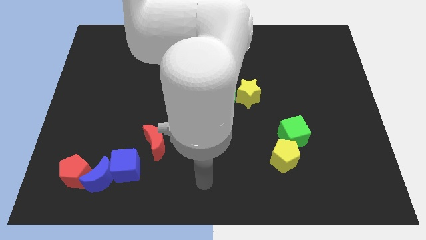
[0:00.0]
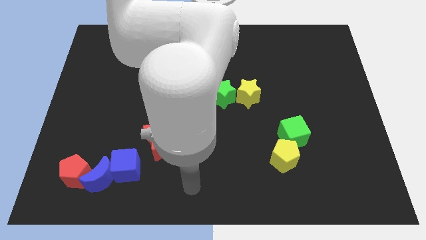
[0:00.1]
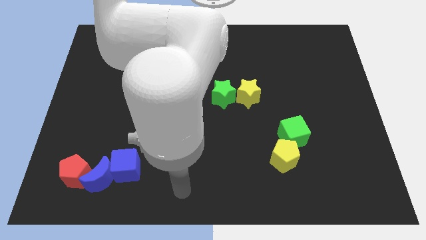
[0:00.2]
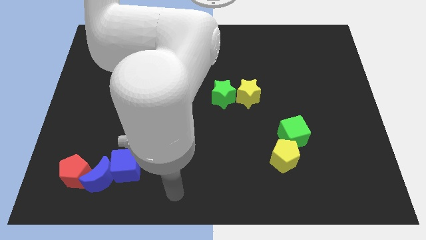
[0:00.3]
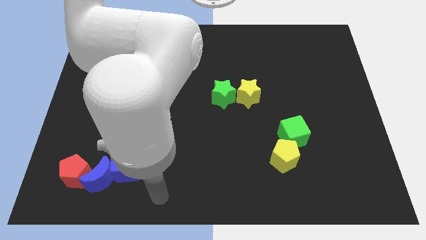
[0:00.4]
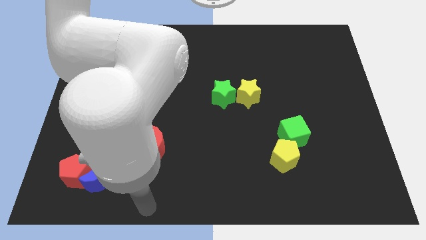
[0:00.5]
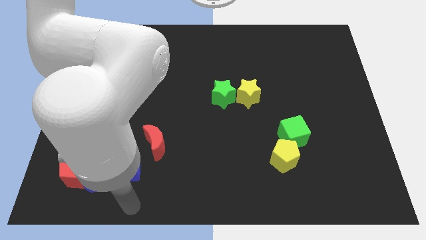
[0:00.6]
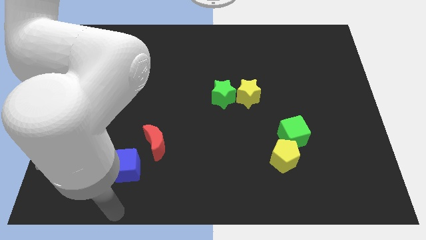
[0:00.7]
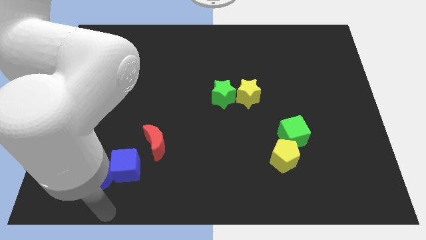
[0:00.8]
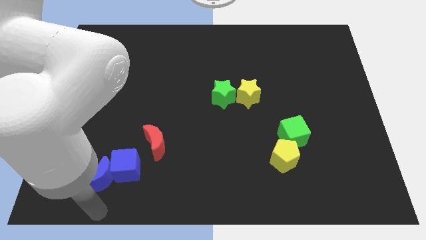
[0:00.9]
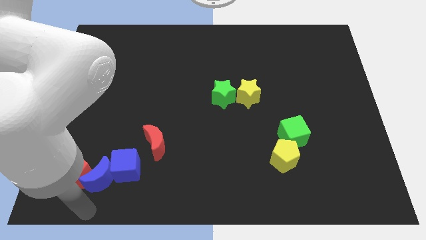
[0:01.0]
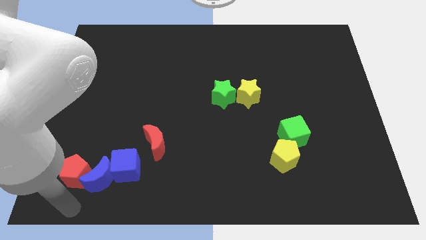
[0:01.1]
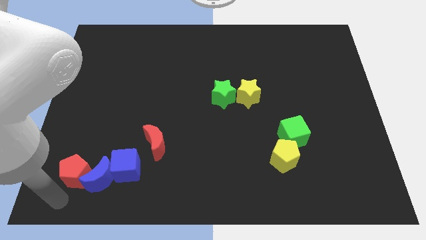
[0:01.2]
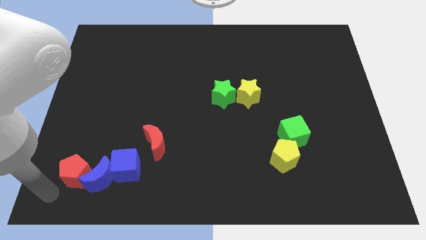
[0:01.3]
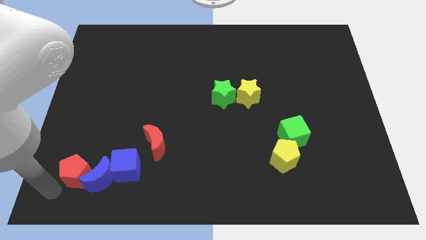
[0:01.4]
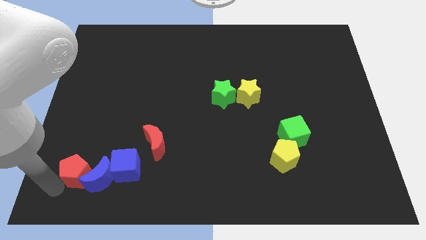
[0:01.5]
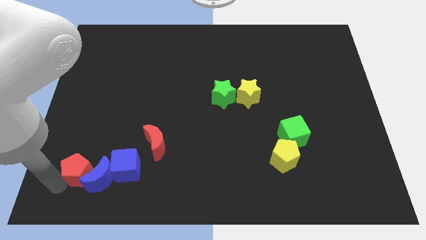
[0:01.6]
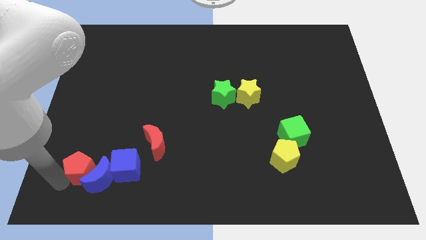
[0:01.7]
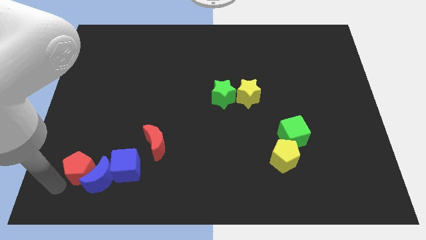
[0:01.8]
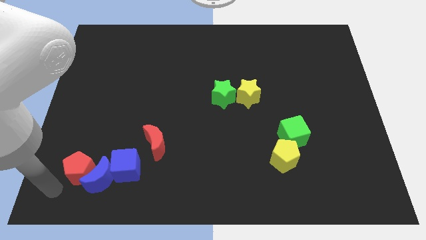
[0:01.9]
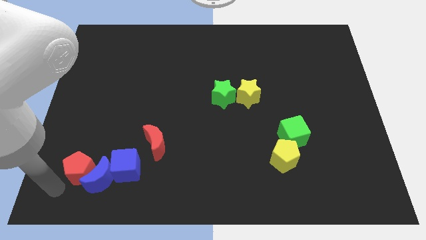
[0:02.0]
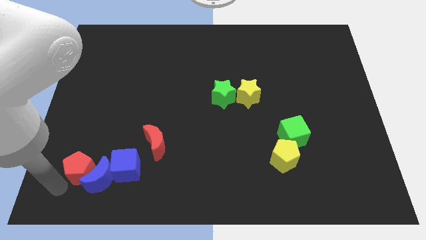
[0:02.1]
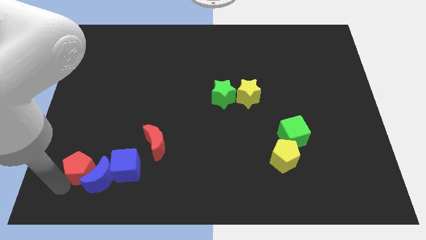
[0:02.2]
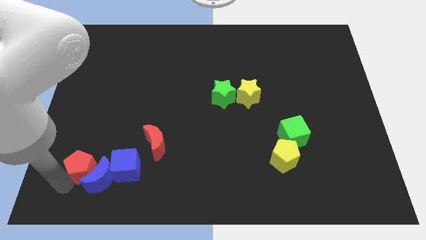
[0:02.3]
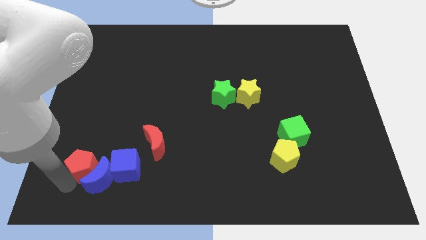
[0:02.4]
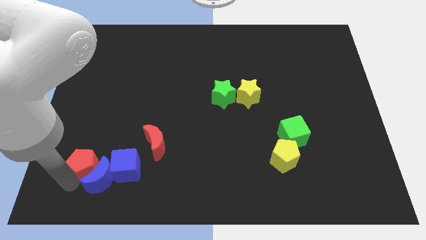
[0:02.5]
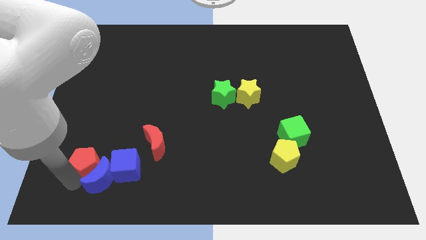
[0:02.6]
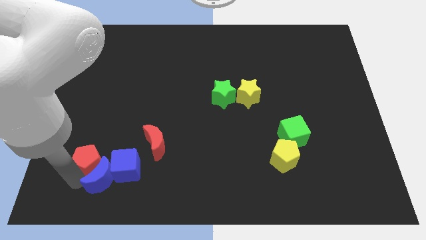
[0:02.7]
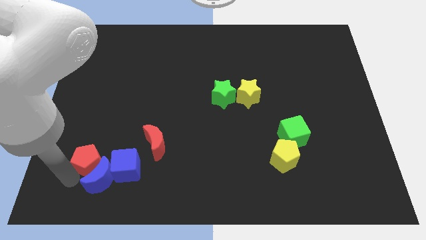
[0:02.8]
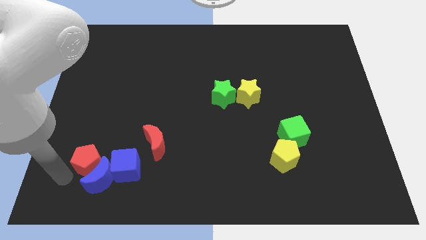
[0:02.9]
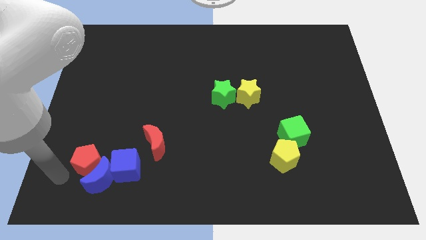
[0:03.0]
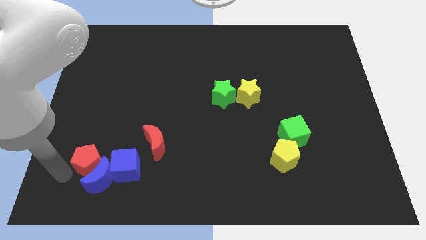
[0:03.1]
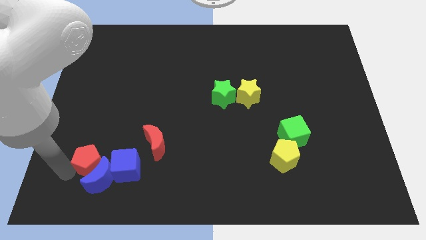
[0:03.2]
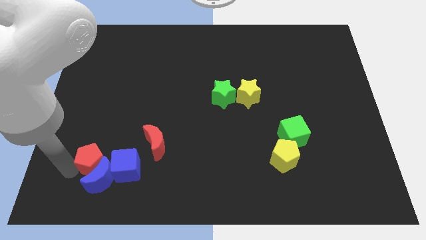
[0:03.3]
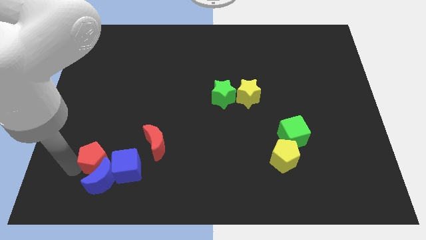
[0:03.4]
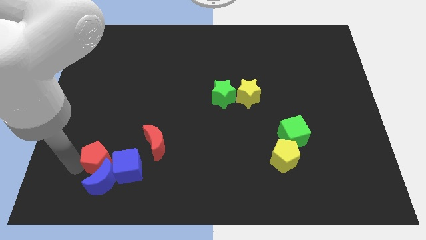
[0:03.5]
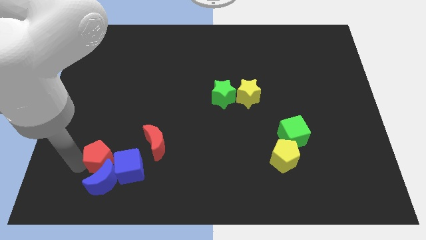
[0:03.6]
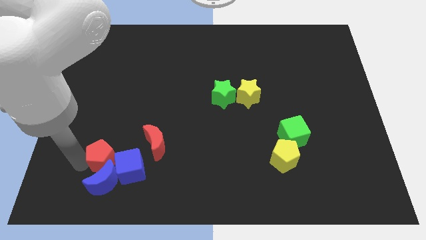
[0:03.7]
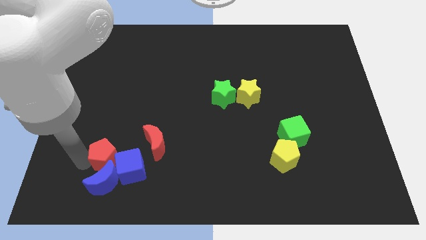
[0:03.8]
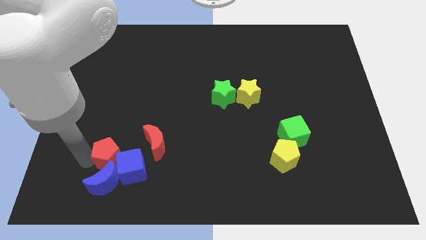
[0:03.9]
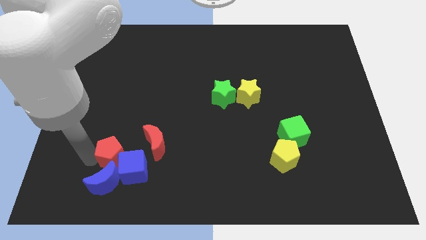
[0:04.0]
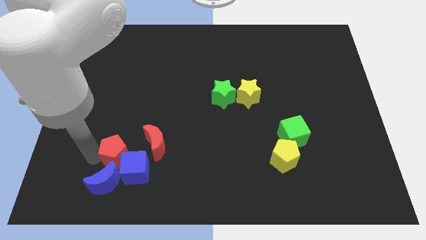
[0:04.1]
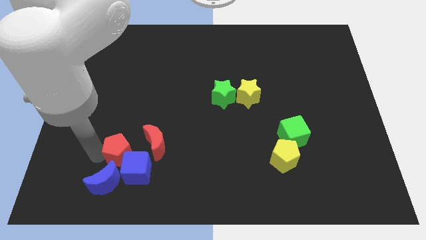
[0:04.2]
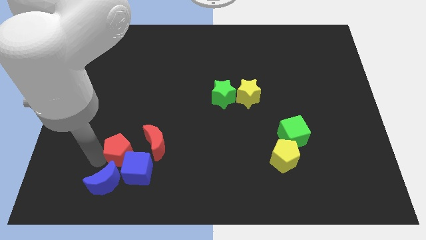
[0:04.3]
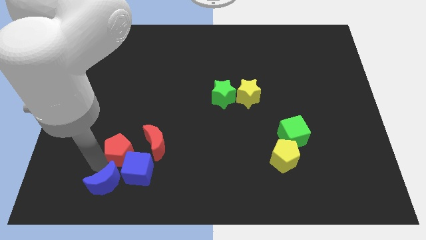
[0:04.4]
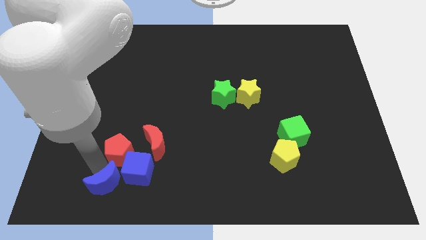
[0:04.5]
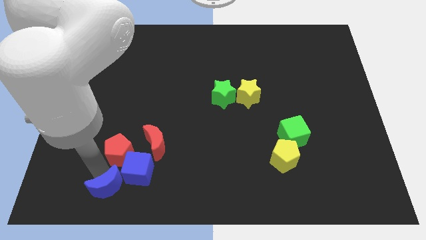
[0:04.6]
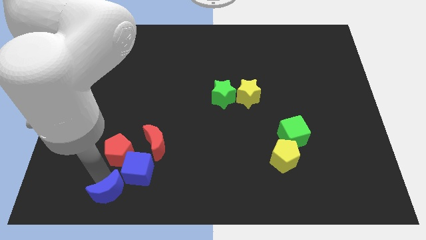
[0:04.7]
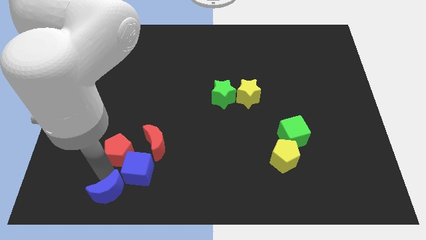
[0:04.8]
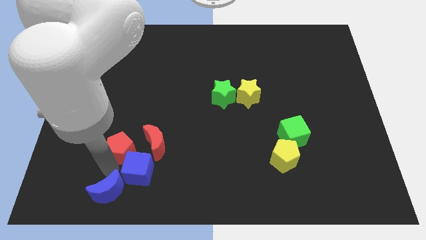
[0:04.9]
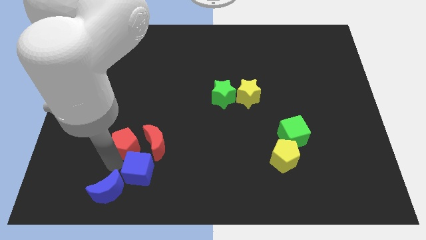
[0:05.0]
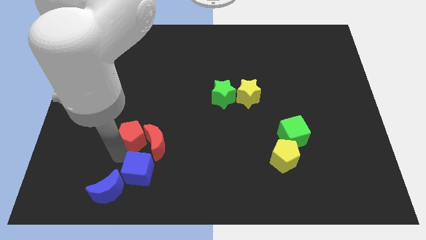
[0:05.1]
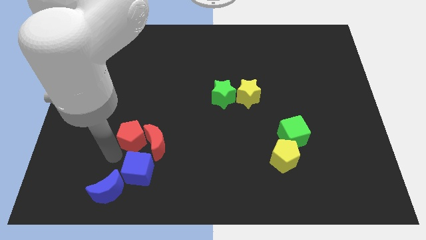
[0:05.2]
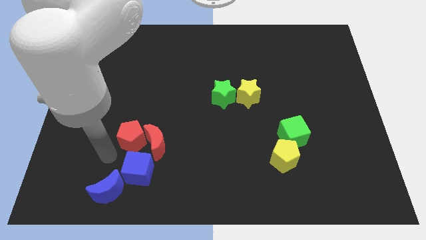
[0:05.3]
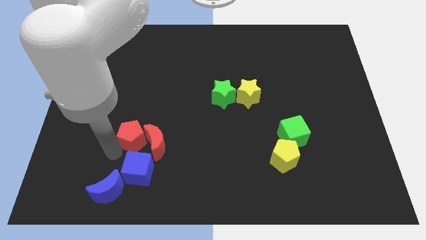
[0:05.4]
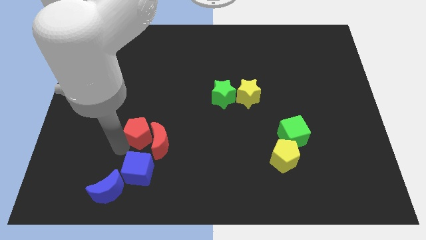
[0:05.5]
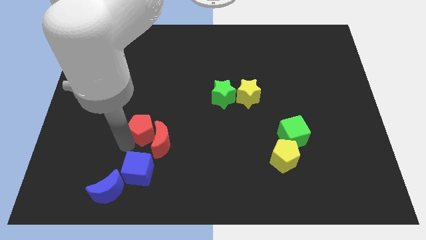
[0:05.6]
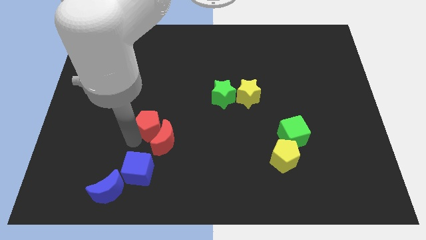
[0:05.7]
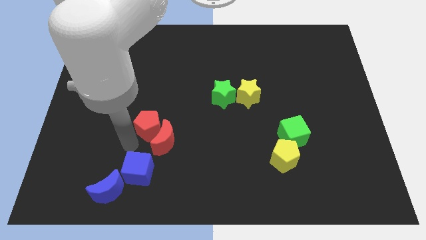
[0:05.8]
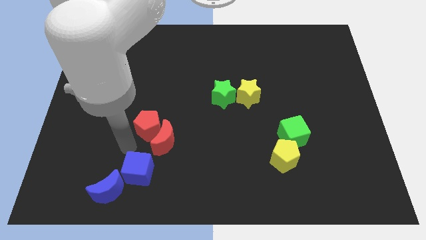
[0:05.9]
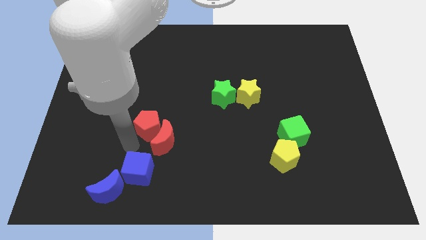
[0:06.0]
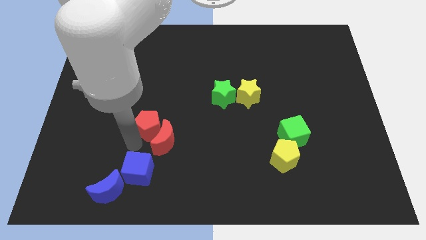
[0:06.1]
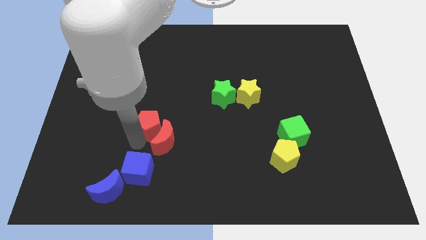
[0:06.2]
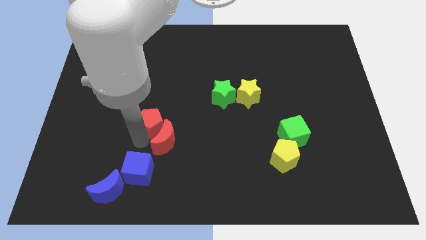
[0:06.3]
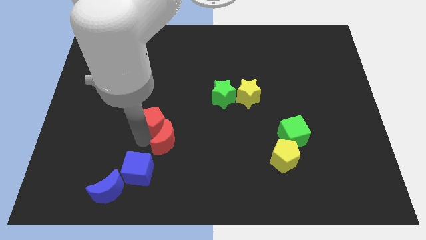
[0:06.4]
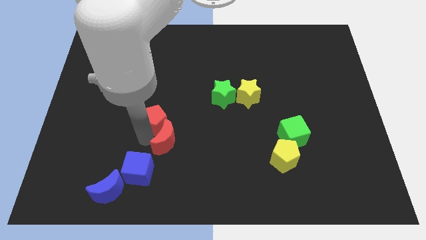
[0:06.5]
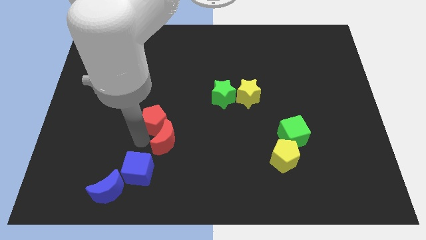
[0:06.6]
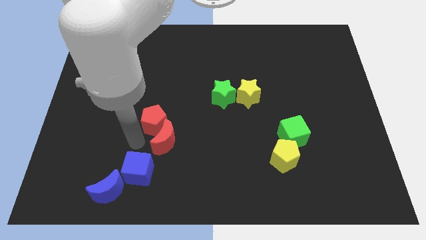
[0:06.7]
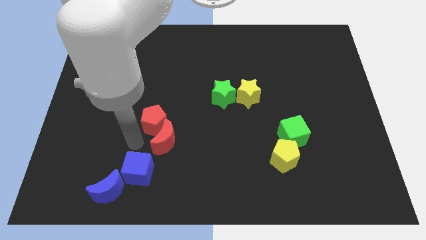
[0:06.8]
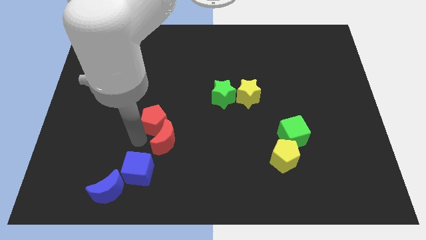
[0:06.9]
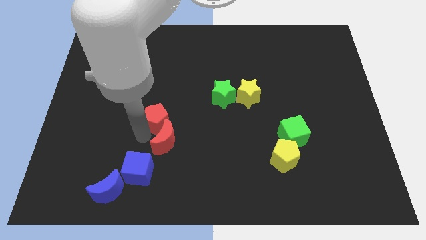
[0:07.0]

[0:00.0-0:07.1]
push the red pentagon up and right diagonally

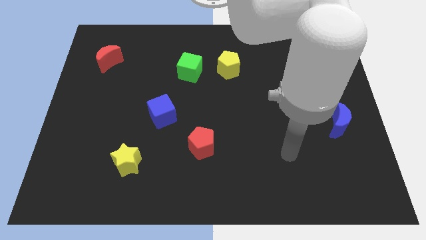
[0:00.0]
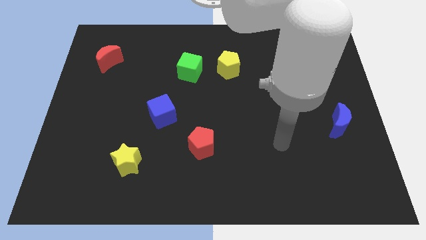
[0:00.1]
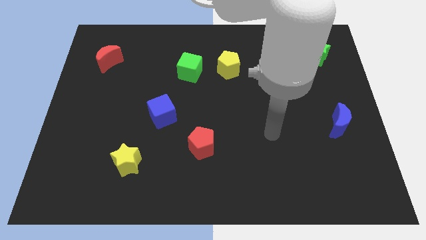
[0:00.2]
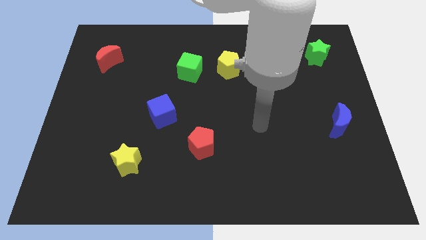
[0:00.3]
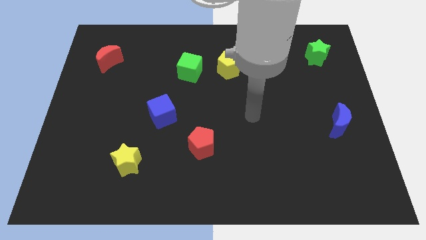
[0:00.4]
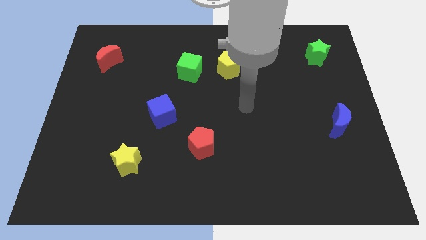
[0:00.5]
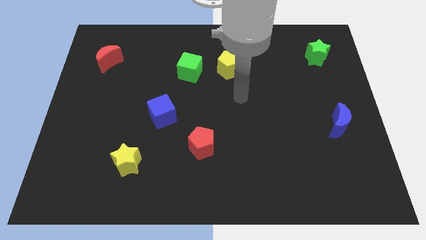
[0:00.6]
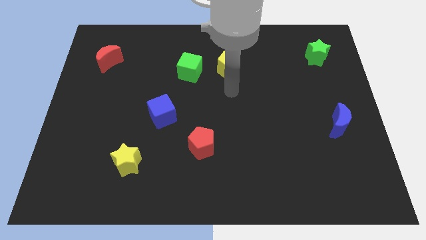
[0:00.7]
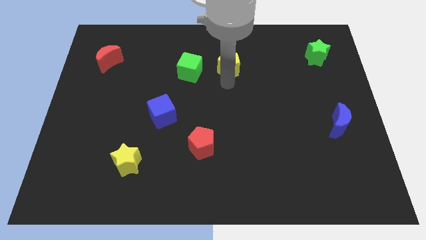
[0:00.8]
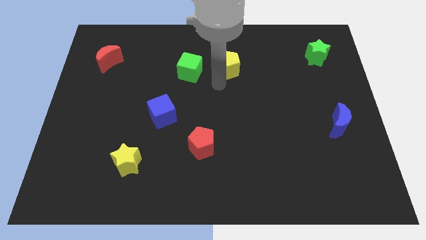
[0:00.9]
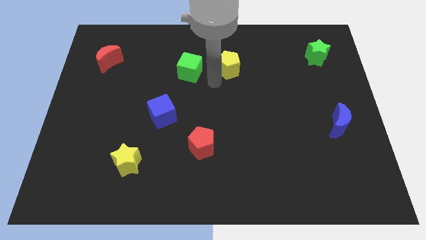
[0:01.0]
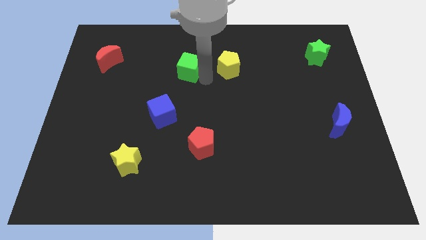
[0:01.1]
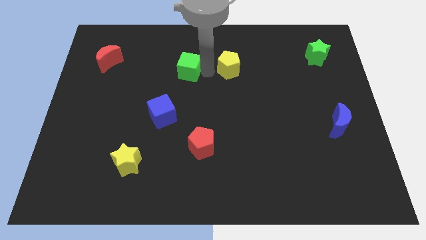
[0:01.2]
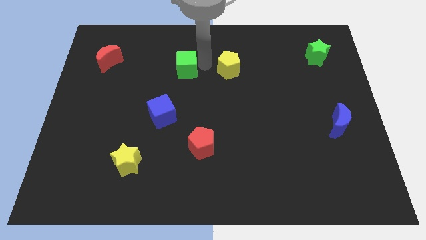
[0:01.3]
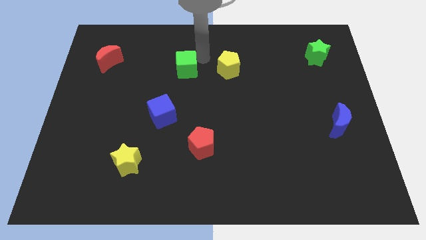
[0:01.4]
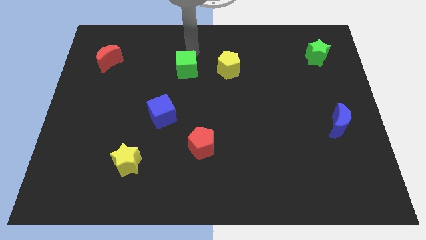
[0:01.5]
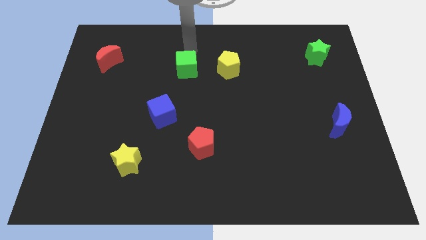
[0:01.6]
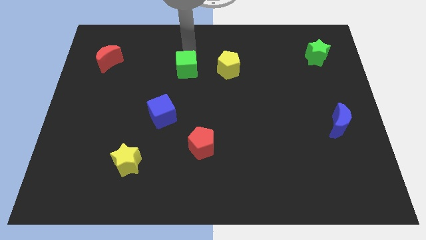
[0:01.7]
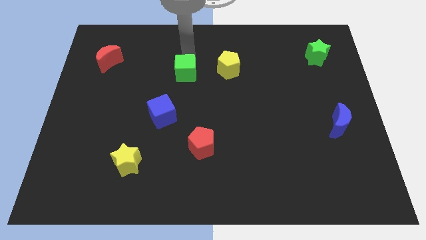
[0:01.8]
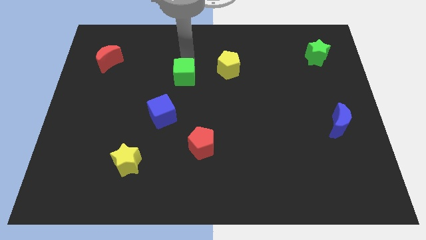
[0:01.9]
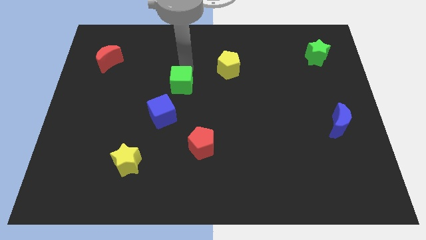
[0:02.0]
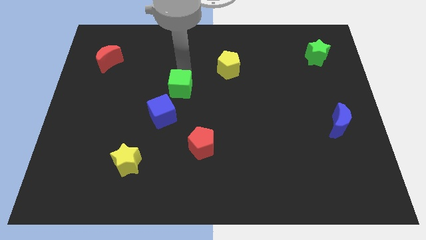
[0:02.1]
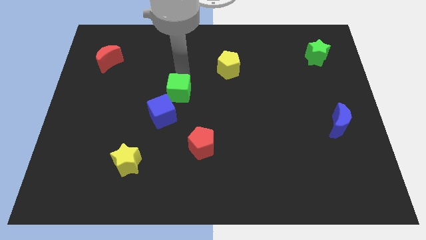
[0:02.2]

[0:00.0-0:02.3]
slightly slide the green cube down
